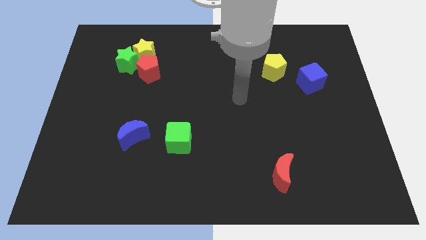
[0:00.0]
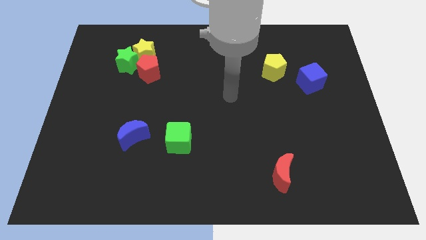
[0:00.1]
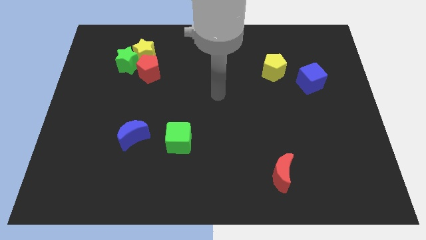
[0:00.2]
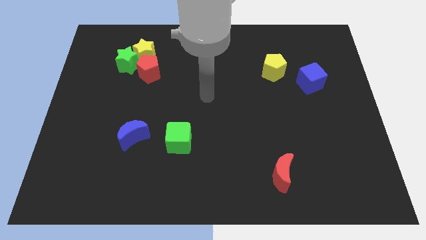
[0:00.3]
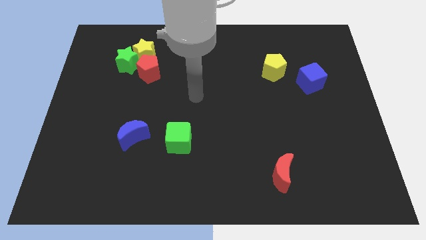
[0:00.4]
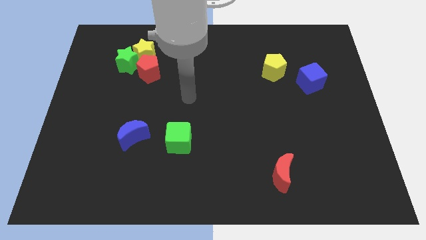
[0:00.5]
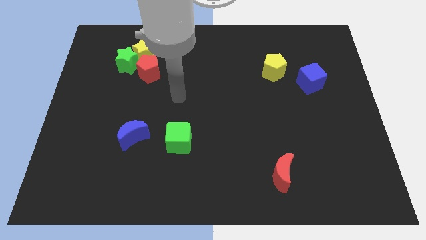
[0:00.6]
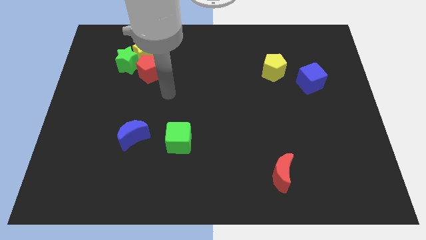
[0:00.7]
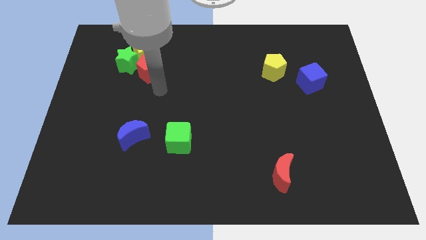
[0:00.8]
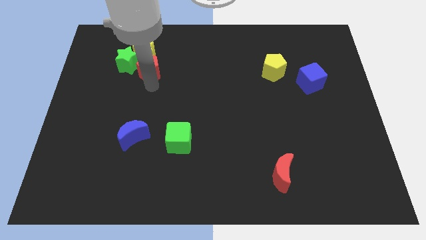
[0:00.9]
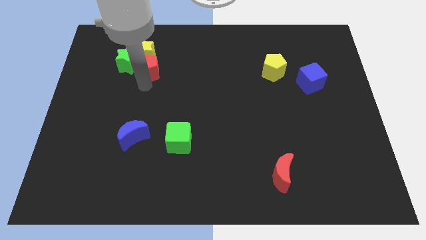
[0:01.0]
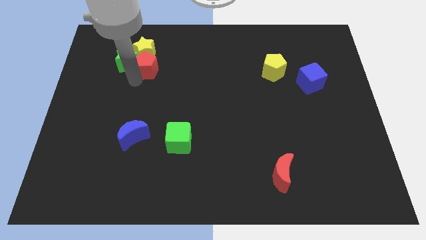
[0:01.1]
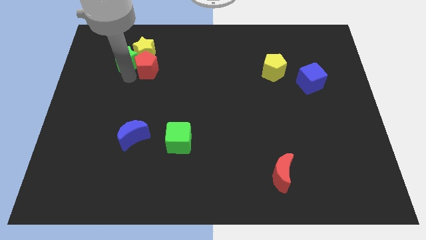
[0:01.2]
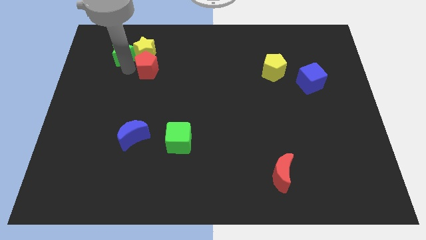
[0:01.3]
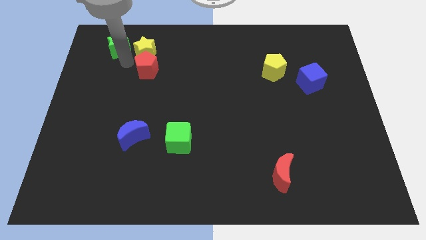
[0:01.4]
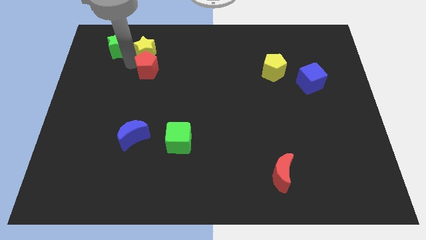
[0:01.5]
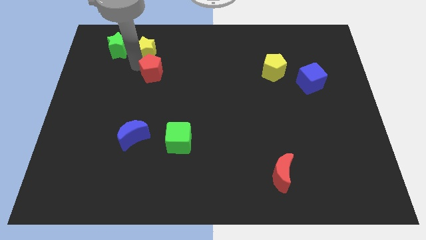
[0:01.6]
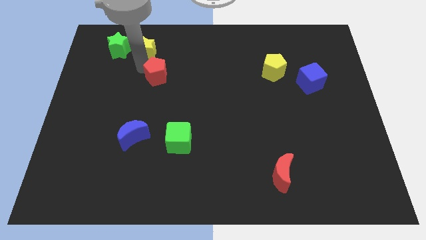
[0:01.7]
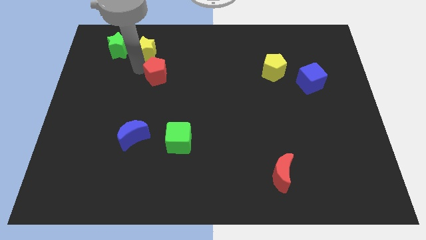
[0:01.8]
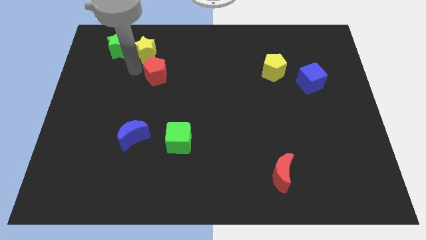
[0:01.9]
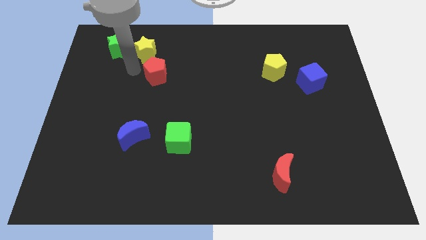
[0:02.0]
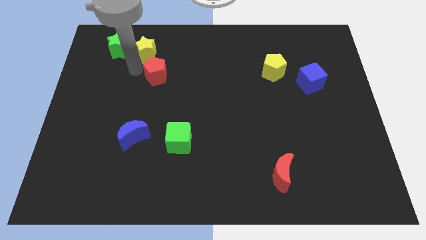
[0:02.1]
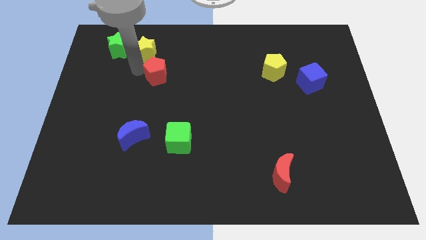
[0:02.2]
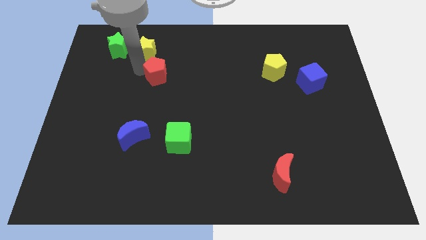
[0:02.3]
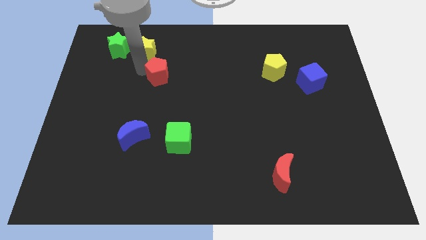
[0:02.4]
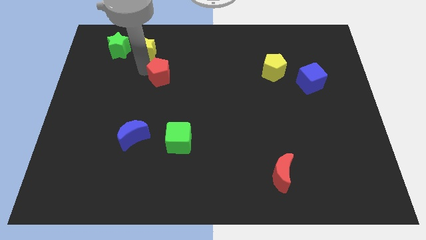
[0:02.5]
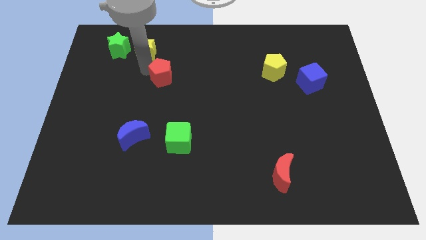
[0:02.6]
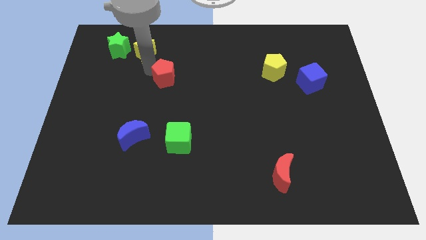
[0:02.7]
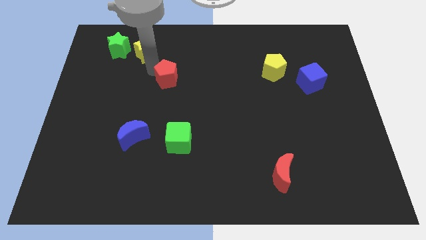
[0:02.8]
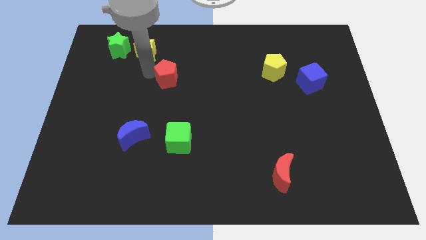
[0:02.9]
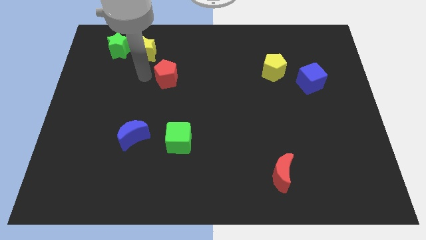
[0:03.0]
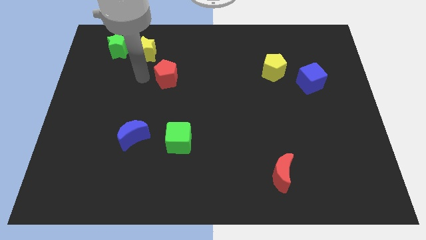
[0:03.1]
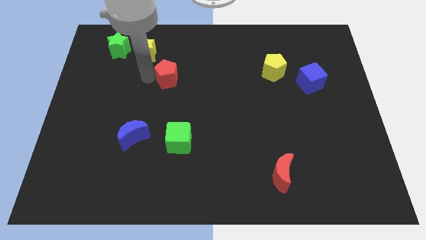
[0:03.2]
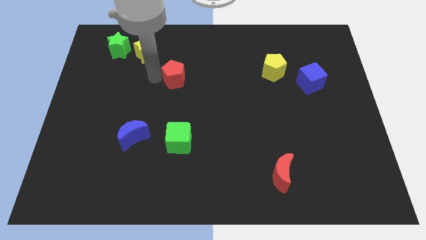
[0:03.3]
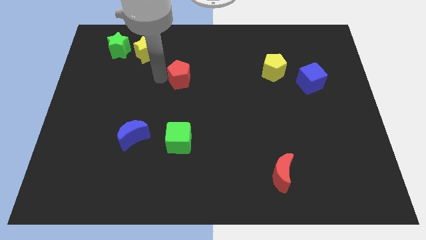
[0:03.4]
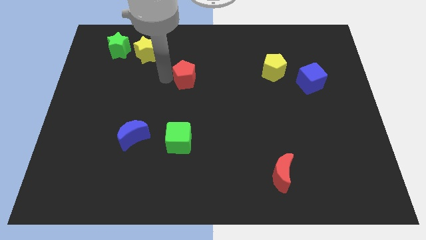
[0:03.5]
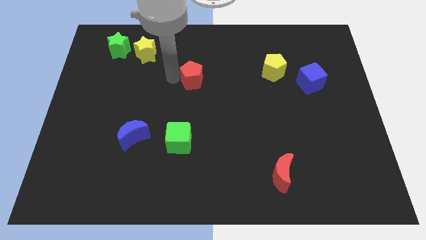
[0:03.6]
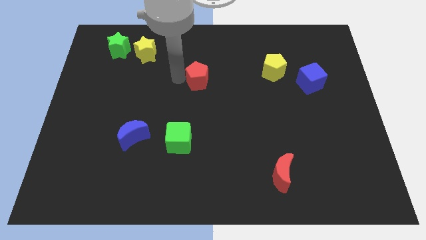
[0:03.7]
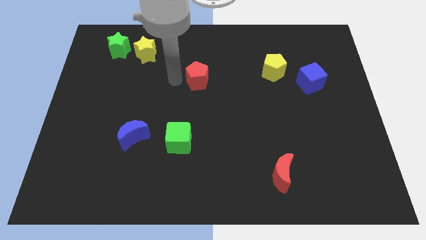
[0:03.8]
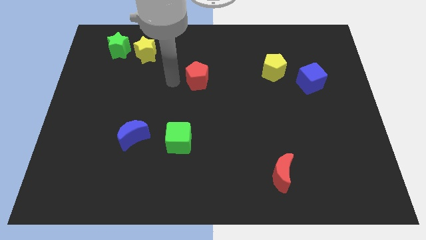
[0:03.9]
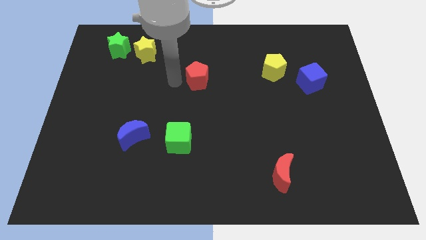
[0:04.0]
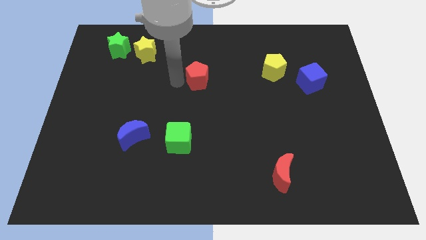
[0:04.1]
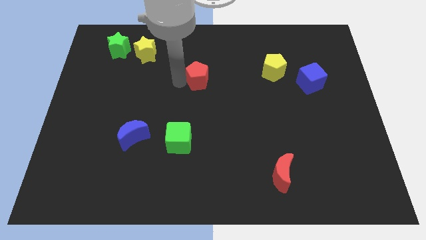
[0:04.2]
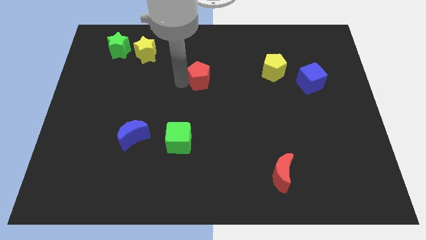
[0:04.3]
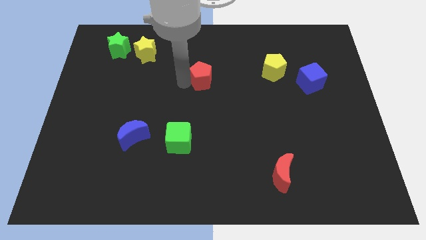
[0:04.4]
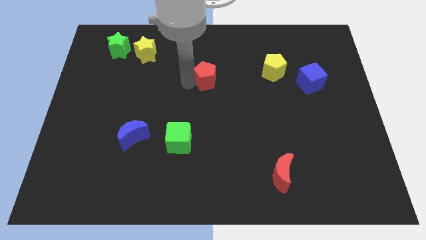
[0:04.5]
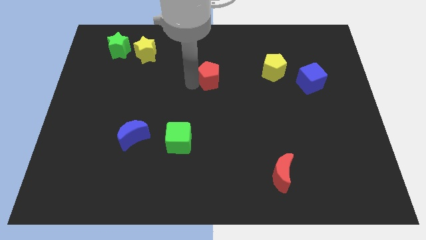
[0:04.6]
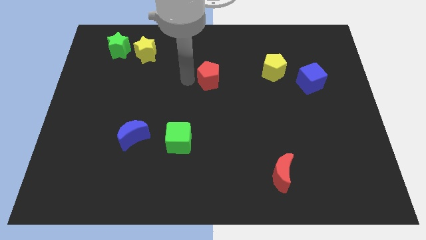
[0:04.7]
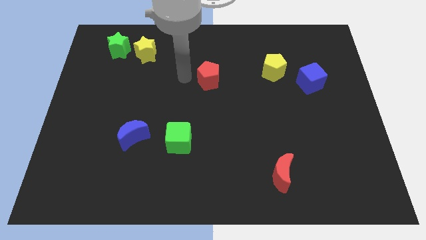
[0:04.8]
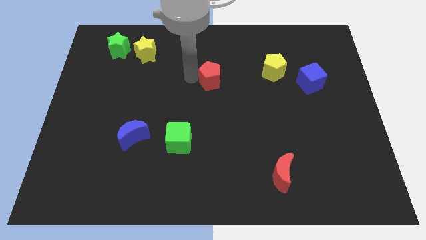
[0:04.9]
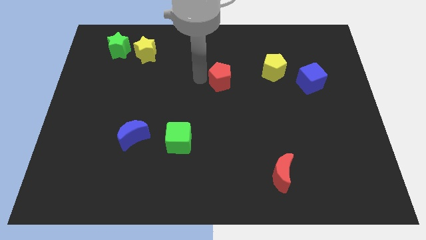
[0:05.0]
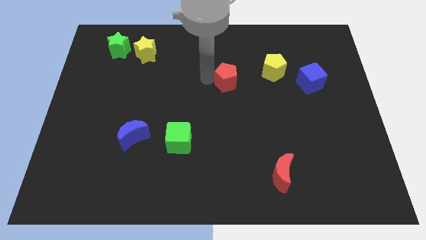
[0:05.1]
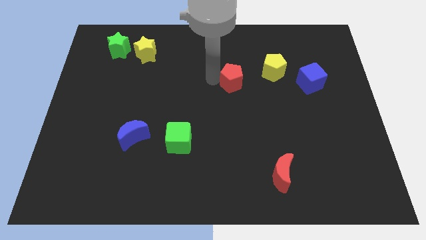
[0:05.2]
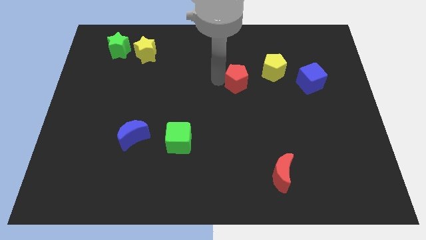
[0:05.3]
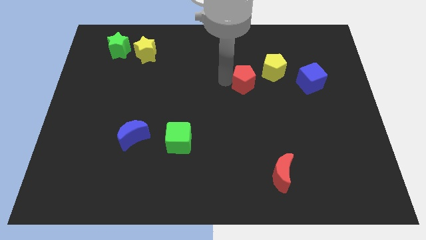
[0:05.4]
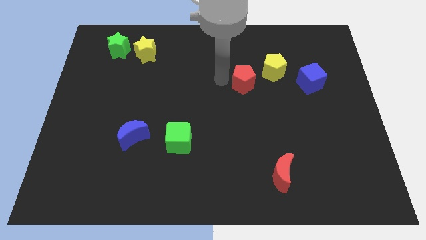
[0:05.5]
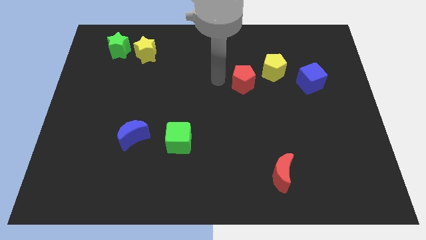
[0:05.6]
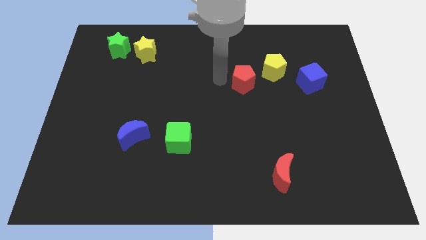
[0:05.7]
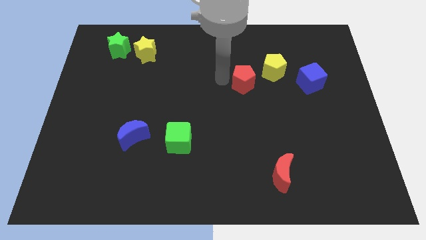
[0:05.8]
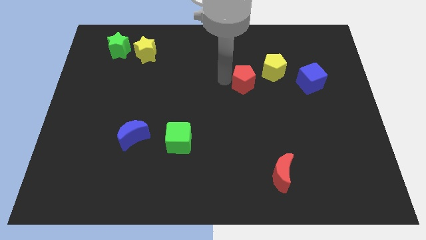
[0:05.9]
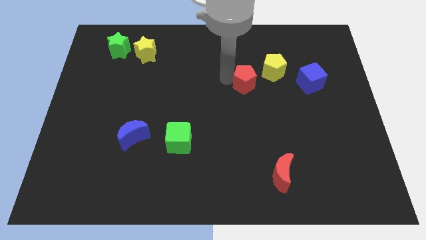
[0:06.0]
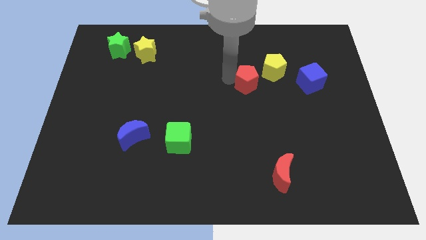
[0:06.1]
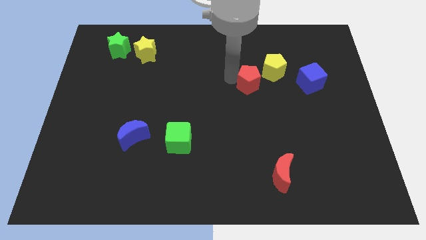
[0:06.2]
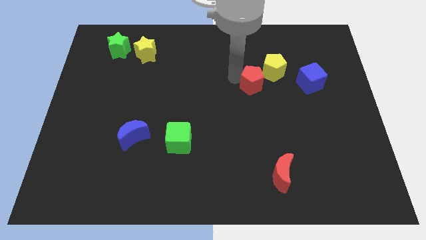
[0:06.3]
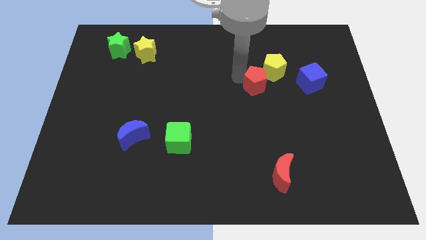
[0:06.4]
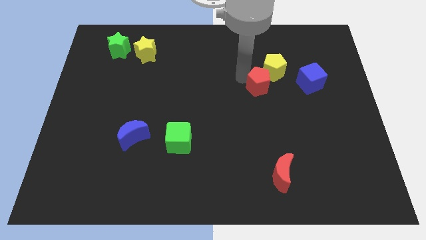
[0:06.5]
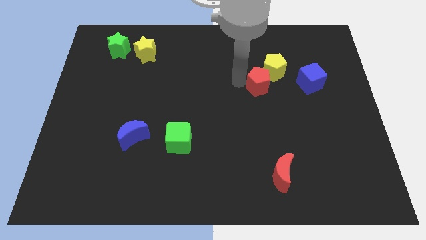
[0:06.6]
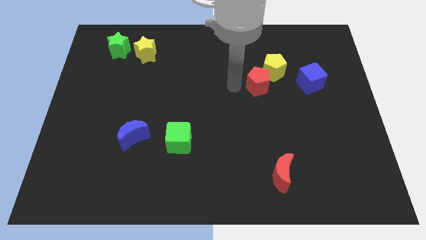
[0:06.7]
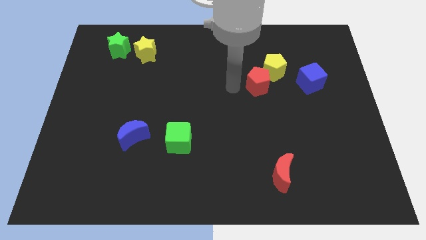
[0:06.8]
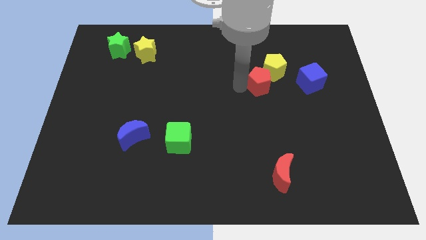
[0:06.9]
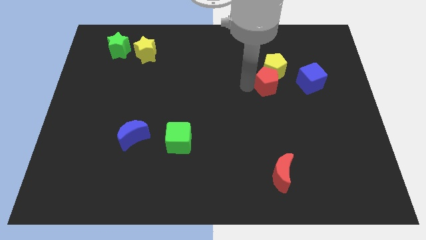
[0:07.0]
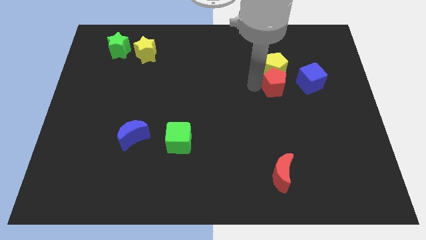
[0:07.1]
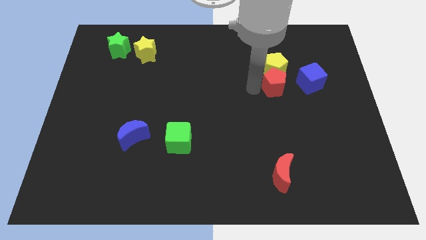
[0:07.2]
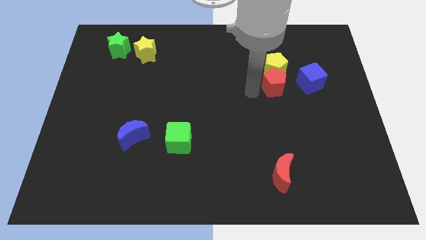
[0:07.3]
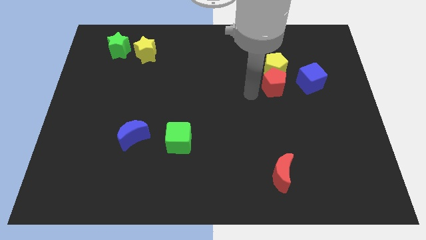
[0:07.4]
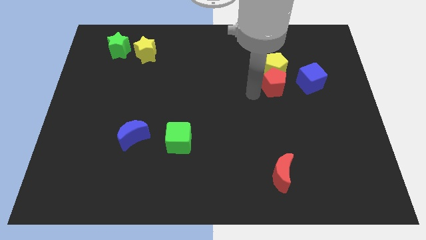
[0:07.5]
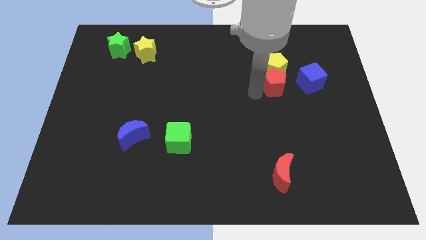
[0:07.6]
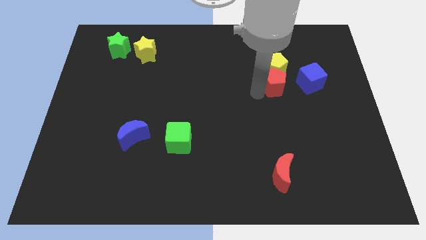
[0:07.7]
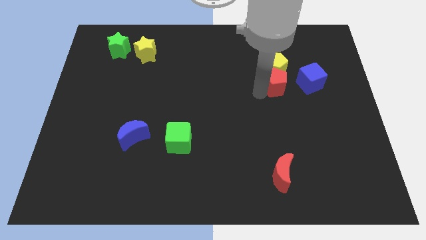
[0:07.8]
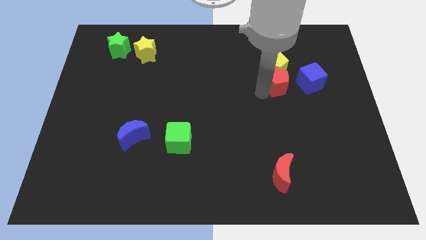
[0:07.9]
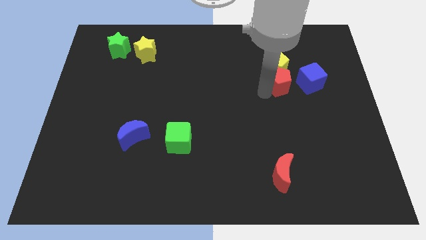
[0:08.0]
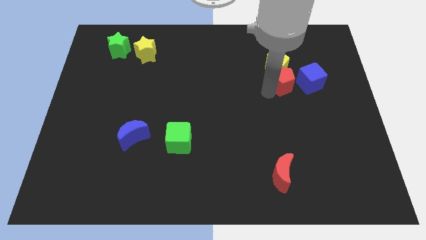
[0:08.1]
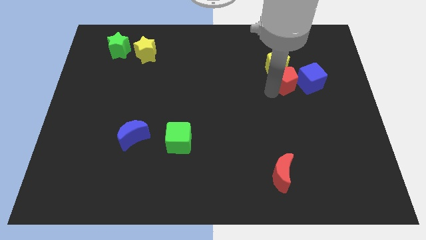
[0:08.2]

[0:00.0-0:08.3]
slide the red pentagon next to the blue cube
